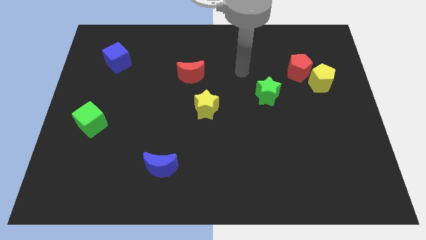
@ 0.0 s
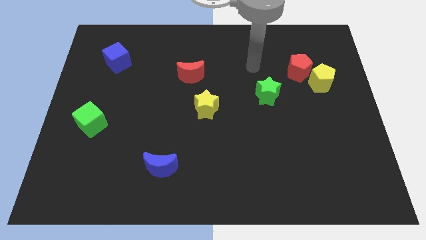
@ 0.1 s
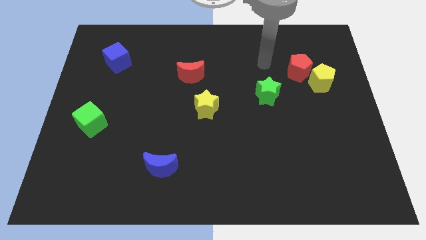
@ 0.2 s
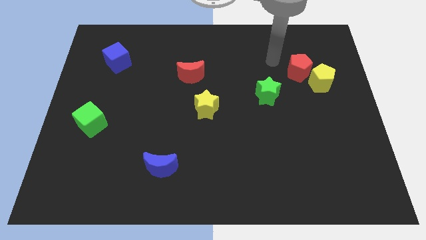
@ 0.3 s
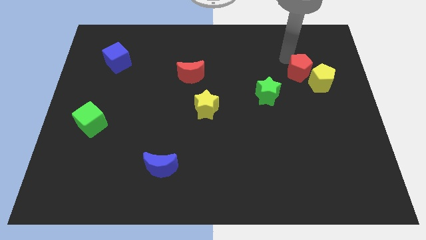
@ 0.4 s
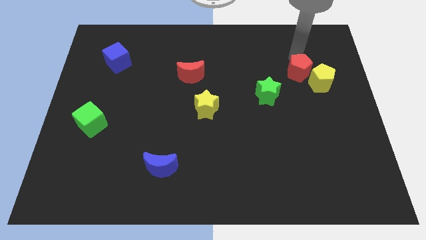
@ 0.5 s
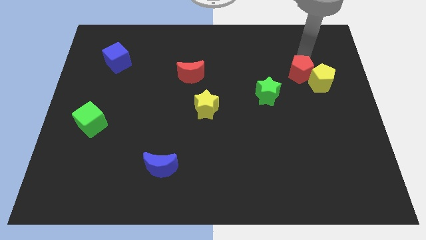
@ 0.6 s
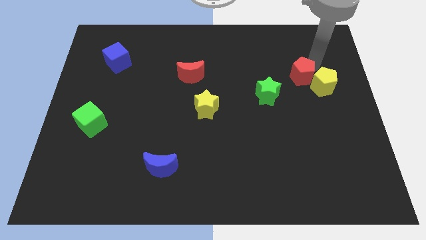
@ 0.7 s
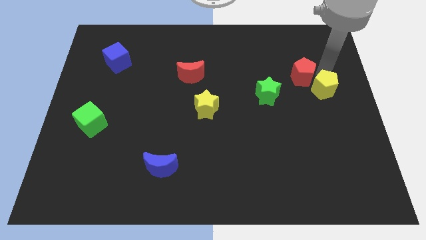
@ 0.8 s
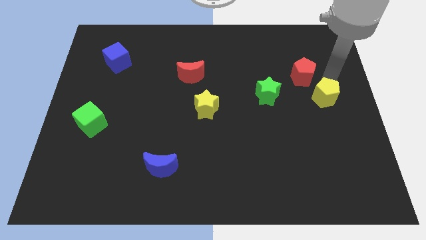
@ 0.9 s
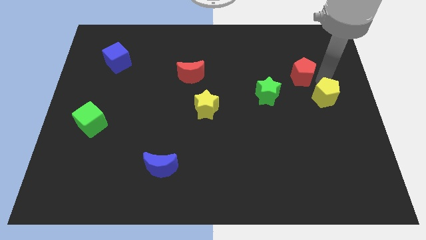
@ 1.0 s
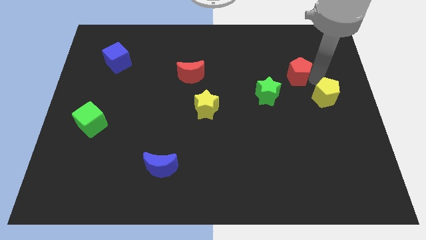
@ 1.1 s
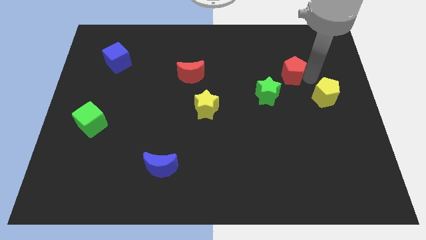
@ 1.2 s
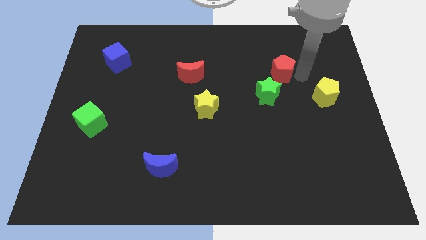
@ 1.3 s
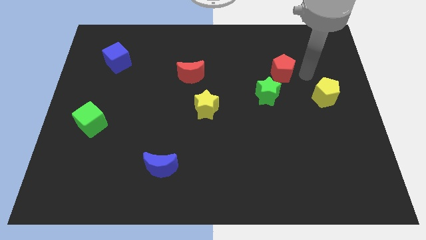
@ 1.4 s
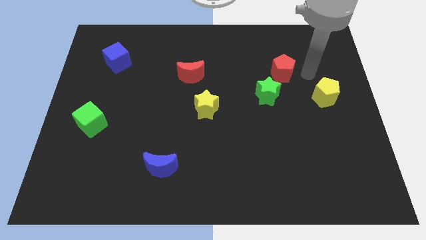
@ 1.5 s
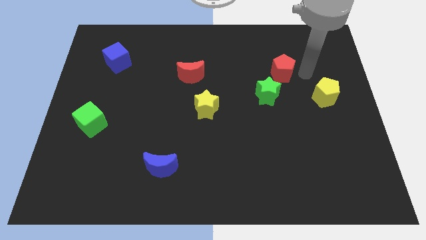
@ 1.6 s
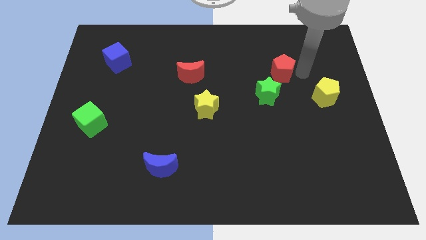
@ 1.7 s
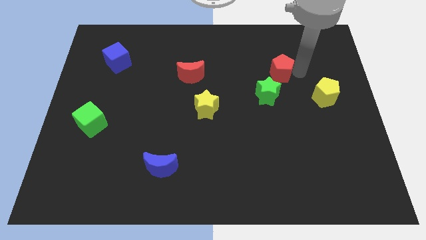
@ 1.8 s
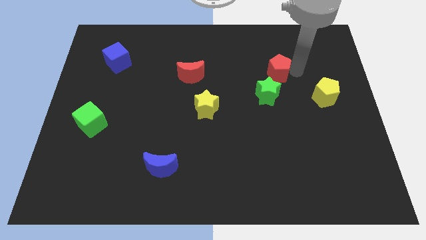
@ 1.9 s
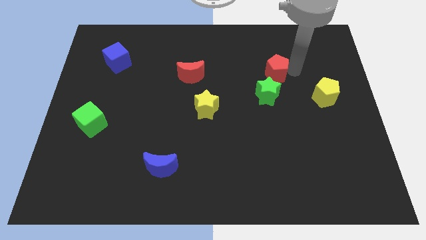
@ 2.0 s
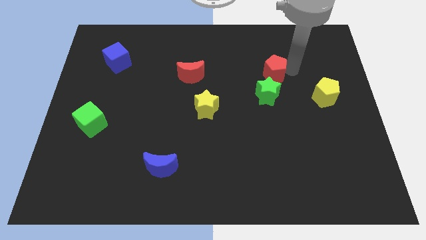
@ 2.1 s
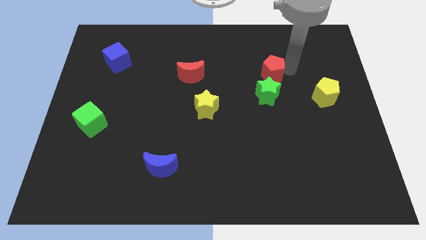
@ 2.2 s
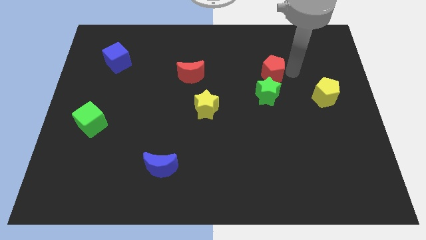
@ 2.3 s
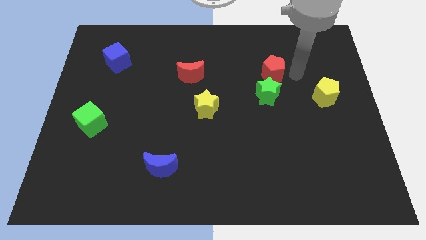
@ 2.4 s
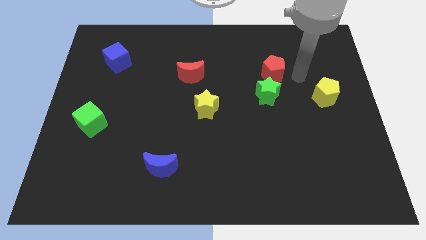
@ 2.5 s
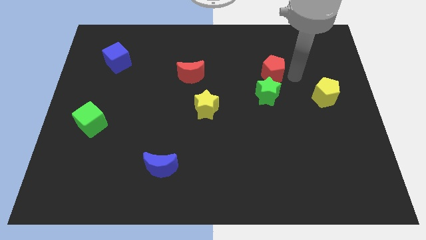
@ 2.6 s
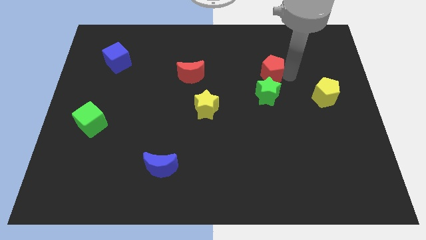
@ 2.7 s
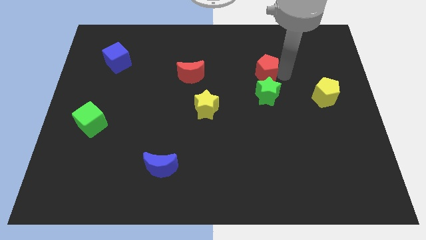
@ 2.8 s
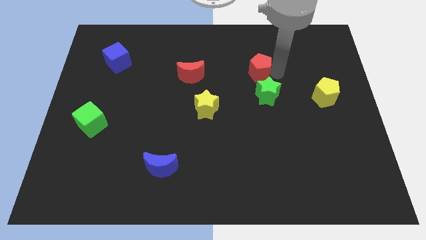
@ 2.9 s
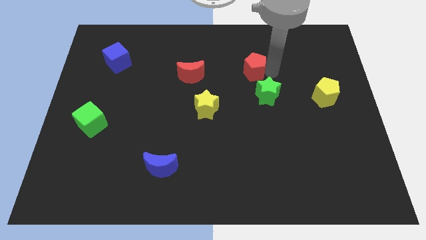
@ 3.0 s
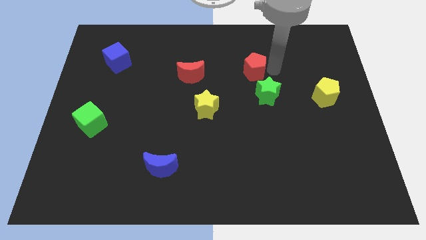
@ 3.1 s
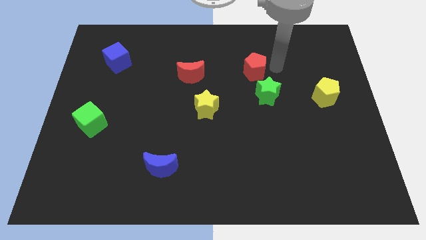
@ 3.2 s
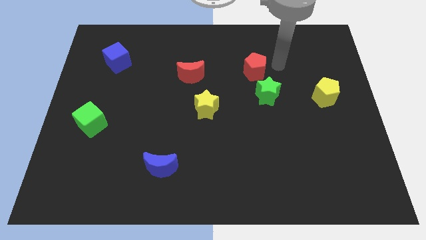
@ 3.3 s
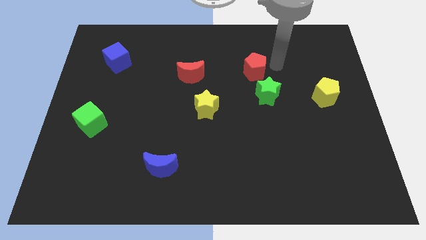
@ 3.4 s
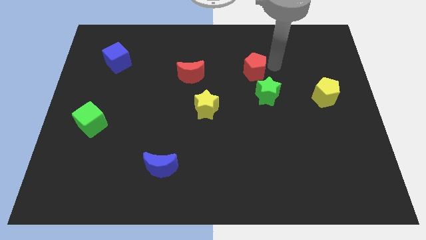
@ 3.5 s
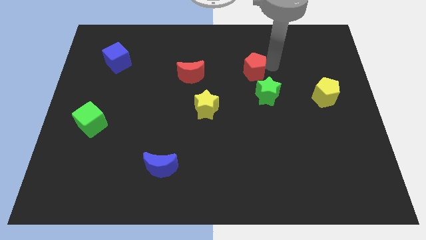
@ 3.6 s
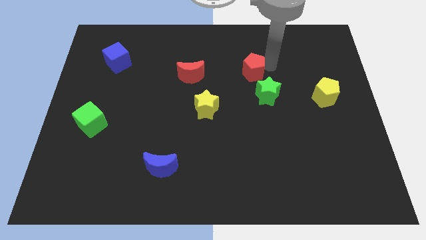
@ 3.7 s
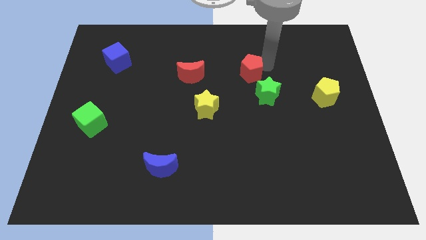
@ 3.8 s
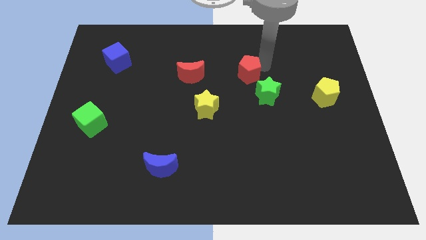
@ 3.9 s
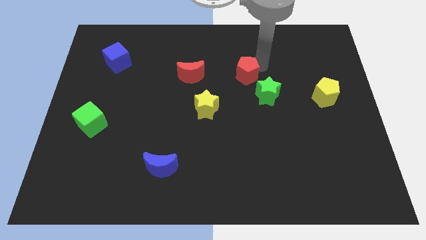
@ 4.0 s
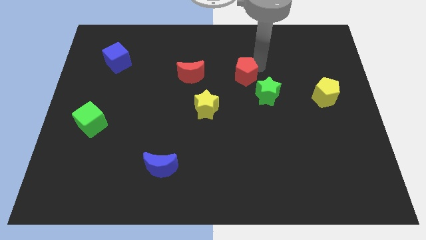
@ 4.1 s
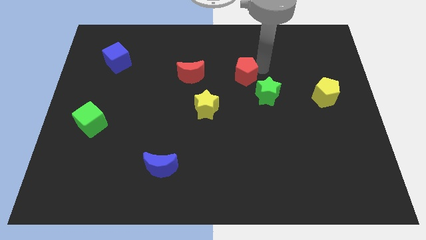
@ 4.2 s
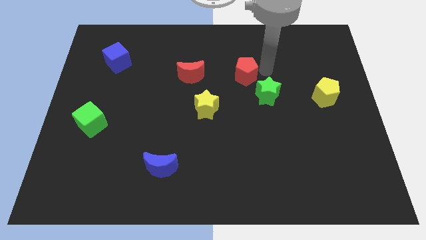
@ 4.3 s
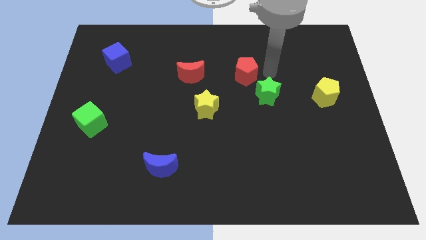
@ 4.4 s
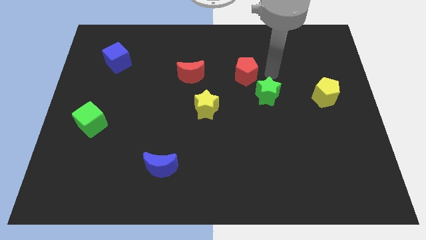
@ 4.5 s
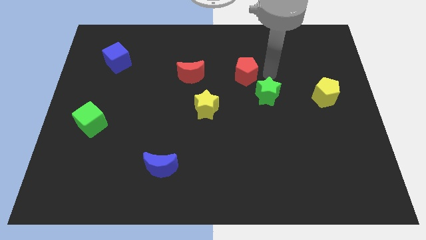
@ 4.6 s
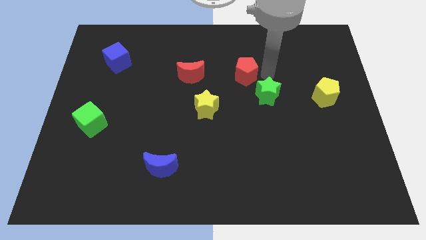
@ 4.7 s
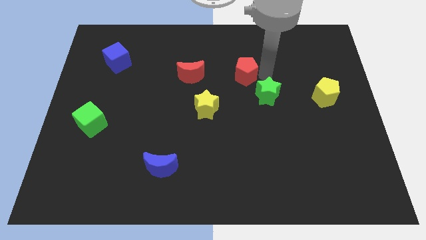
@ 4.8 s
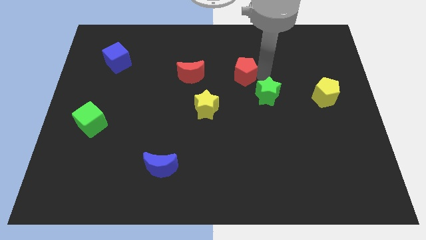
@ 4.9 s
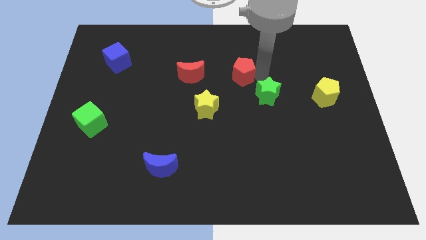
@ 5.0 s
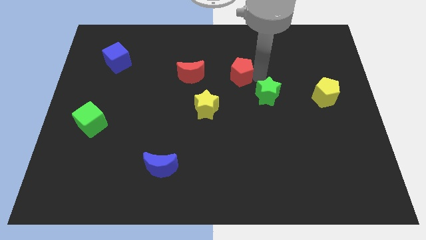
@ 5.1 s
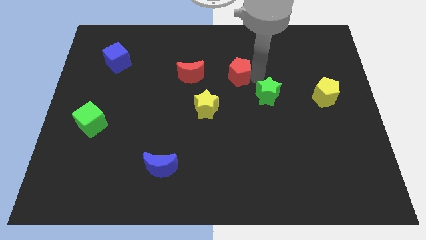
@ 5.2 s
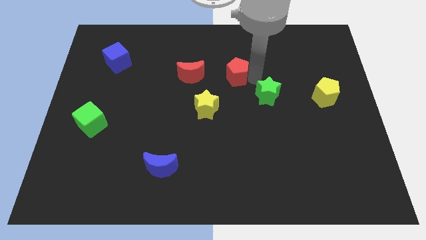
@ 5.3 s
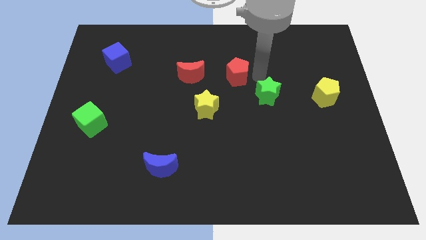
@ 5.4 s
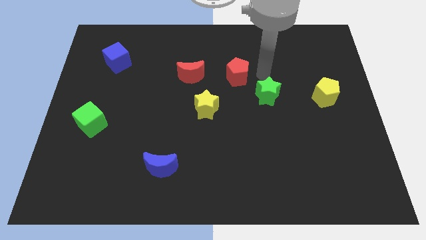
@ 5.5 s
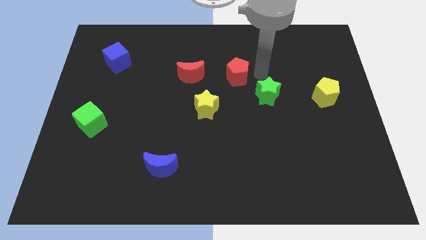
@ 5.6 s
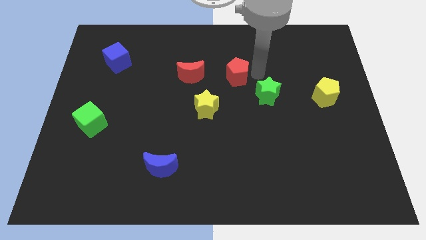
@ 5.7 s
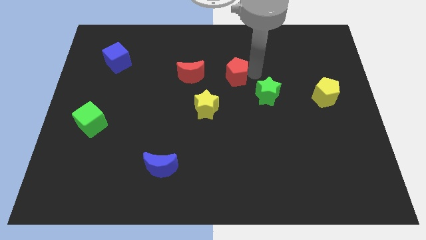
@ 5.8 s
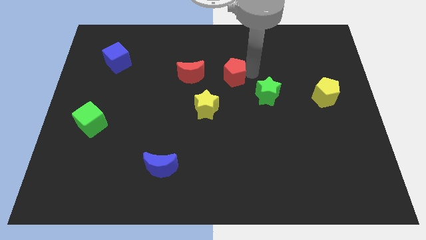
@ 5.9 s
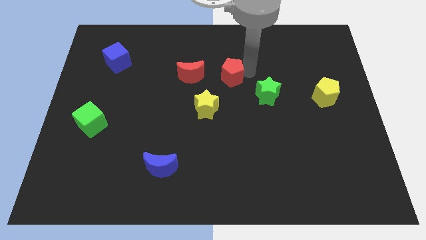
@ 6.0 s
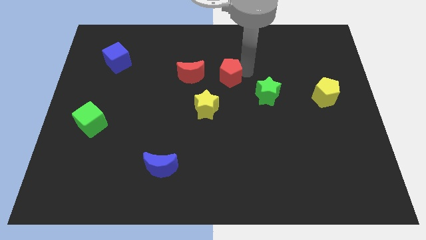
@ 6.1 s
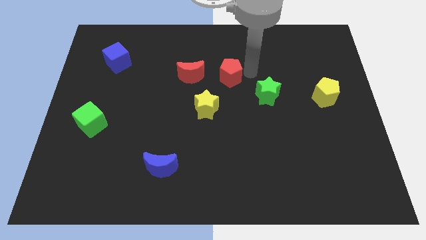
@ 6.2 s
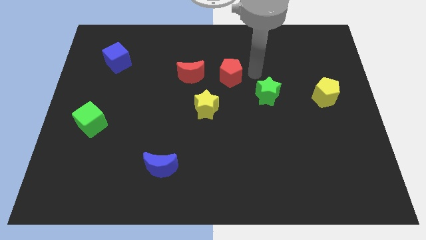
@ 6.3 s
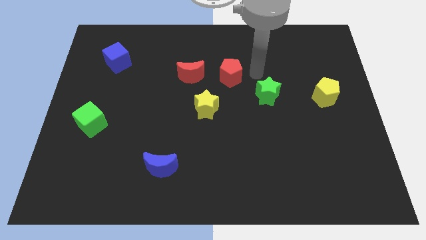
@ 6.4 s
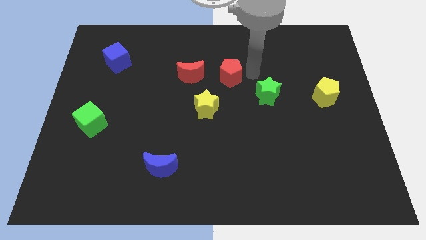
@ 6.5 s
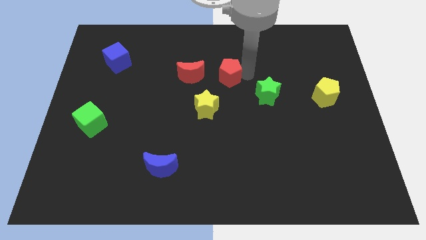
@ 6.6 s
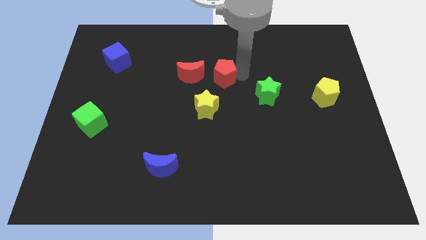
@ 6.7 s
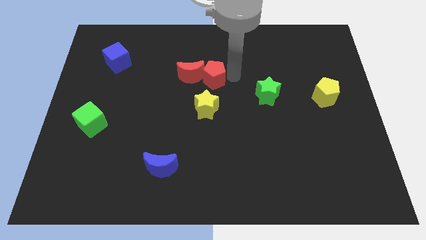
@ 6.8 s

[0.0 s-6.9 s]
push the red pentagon to the red moon
